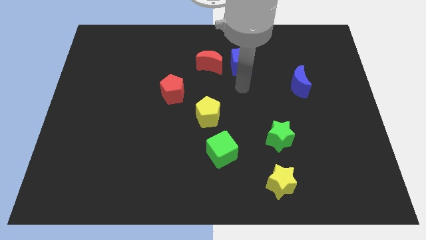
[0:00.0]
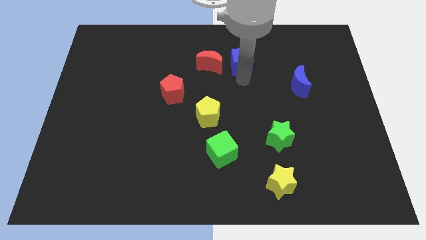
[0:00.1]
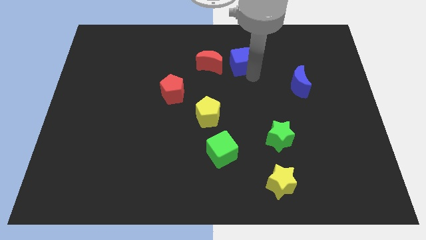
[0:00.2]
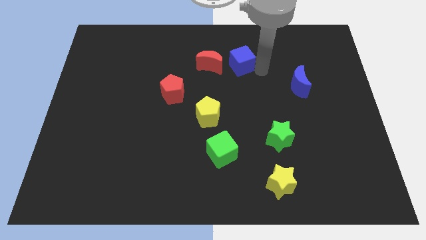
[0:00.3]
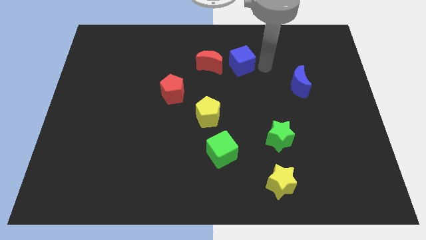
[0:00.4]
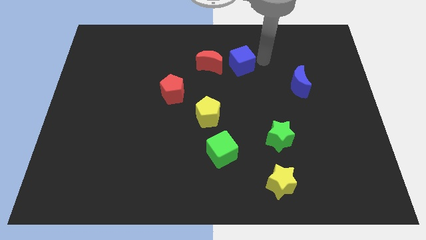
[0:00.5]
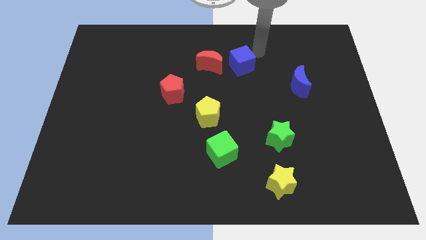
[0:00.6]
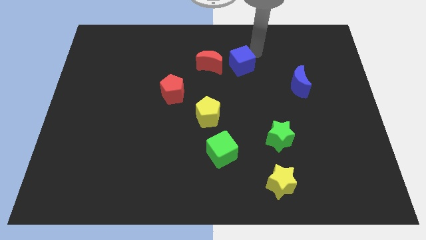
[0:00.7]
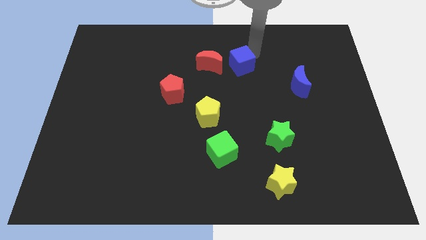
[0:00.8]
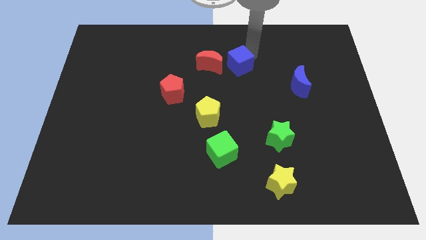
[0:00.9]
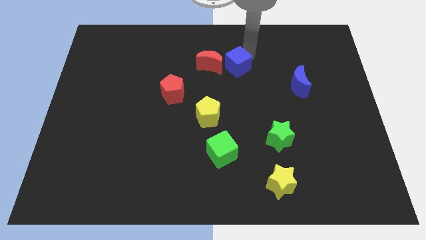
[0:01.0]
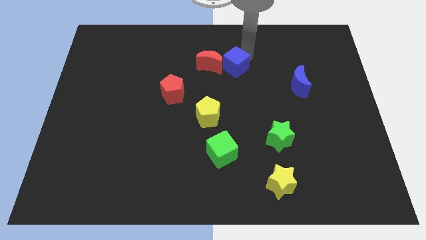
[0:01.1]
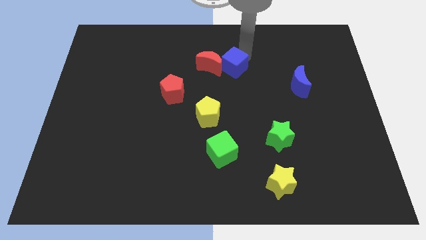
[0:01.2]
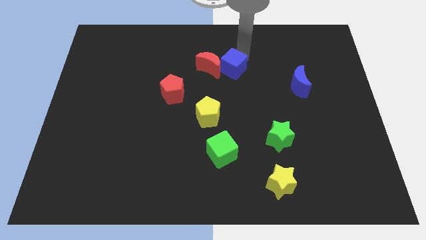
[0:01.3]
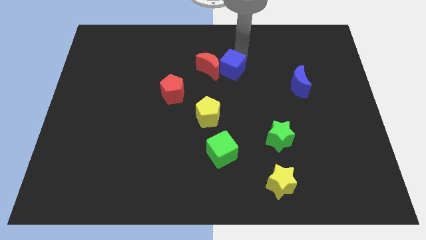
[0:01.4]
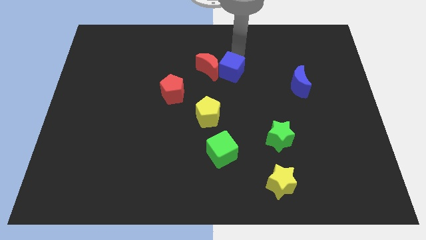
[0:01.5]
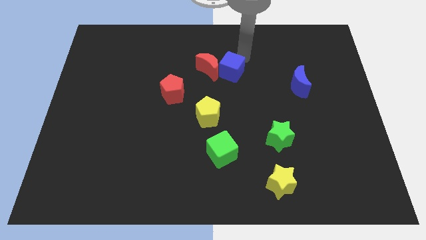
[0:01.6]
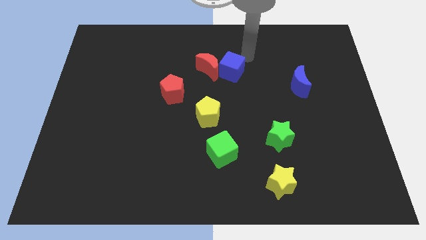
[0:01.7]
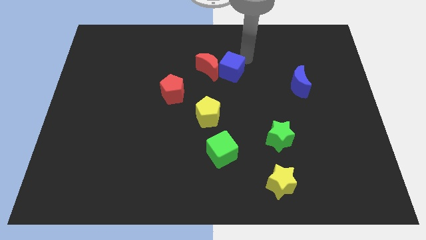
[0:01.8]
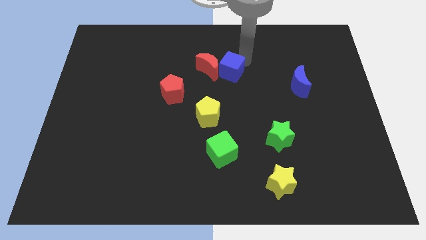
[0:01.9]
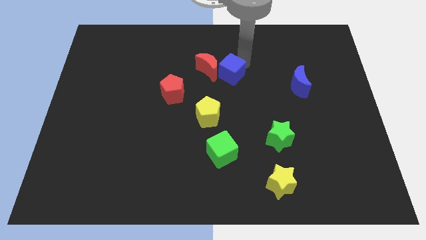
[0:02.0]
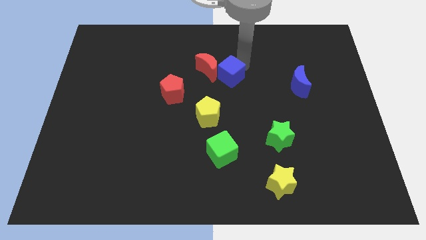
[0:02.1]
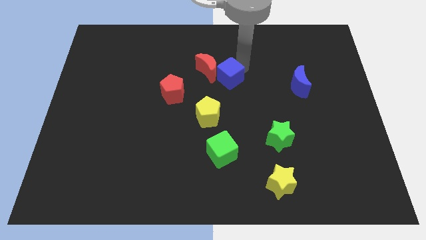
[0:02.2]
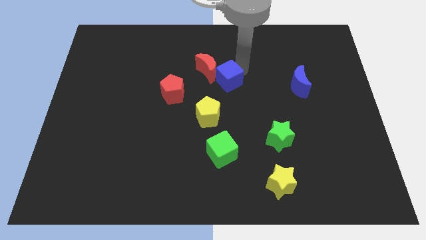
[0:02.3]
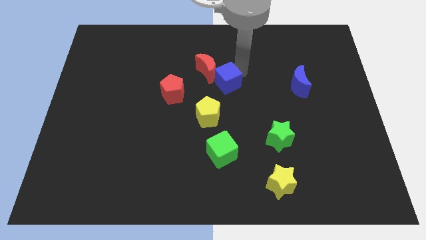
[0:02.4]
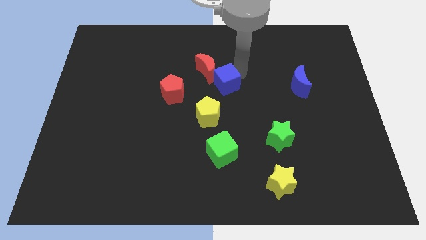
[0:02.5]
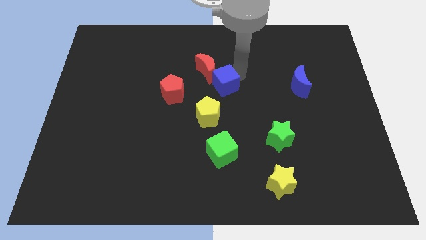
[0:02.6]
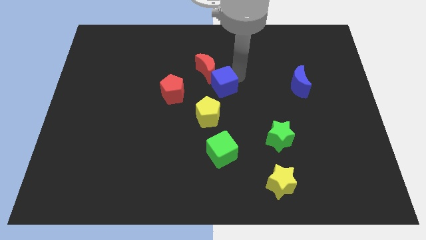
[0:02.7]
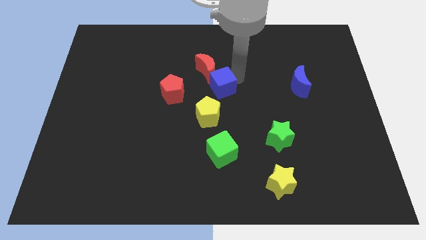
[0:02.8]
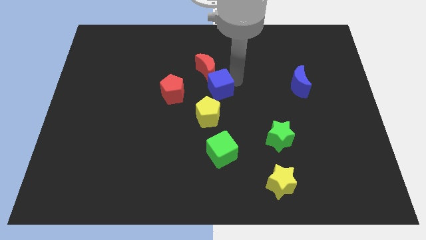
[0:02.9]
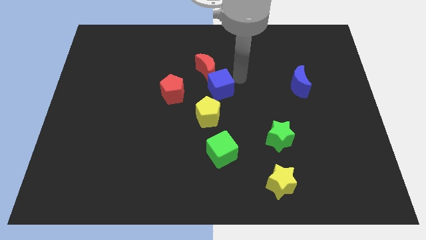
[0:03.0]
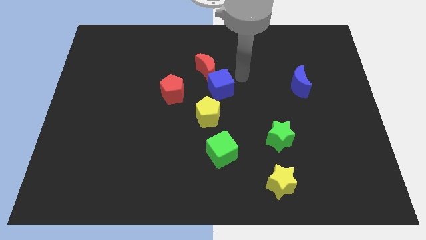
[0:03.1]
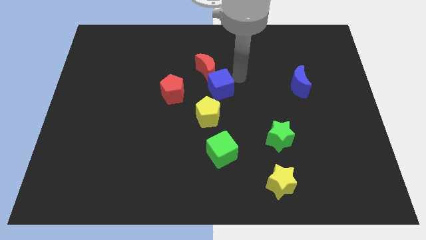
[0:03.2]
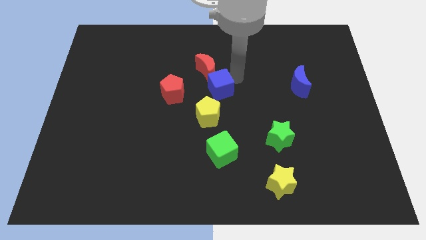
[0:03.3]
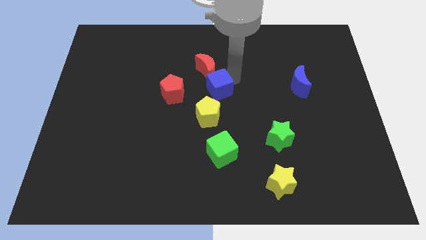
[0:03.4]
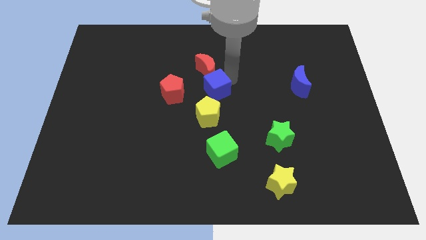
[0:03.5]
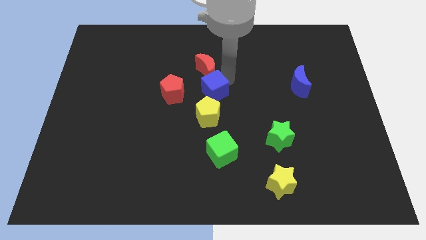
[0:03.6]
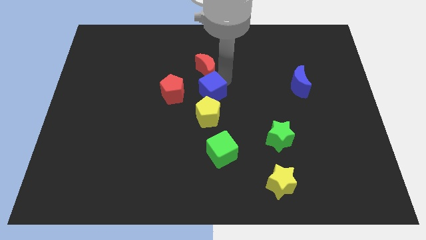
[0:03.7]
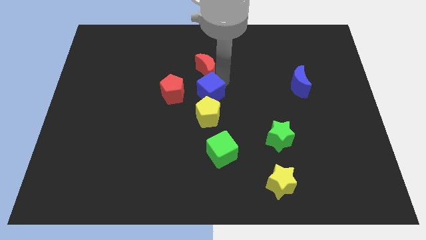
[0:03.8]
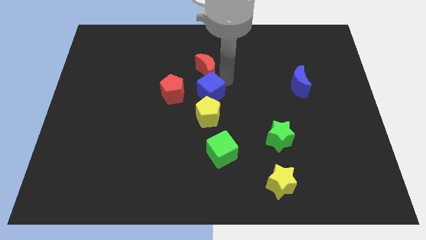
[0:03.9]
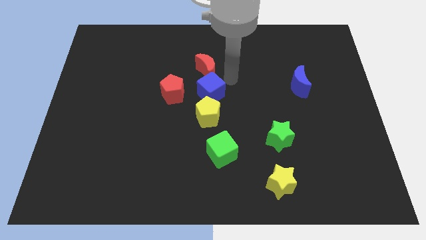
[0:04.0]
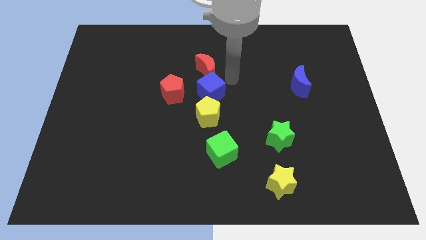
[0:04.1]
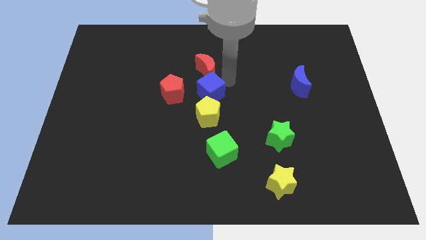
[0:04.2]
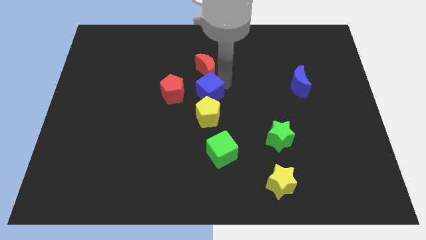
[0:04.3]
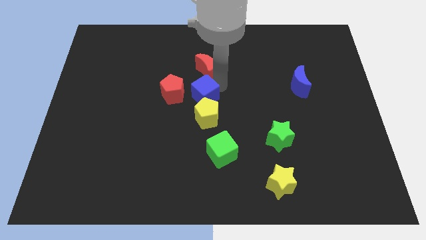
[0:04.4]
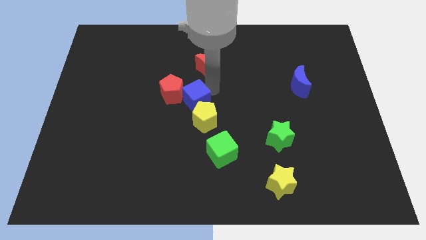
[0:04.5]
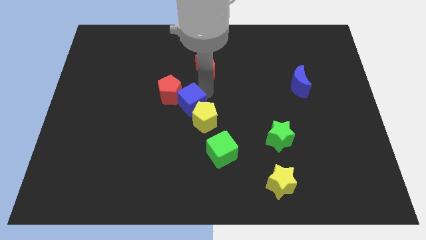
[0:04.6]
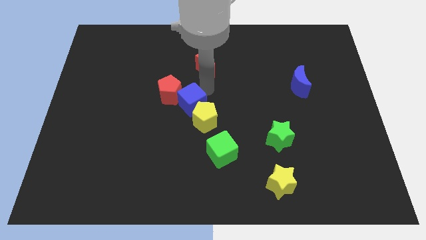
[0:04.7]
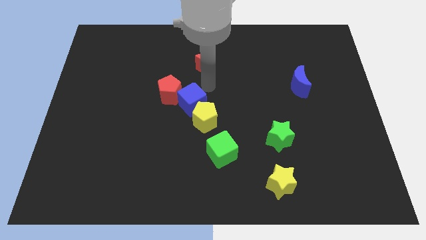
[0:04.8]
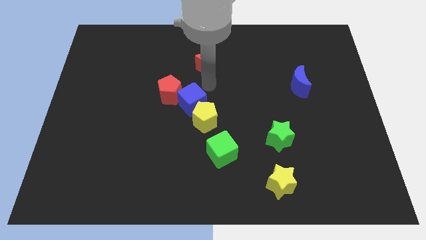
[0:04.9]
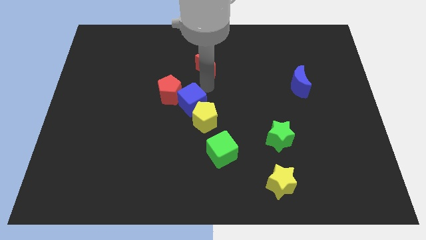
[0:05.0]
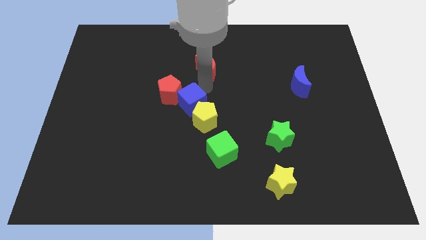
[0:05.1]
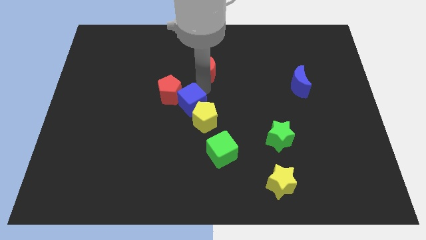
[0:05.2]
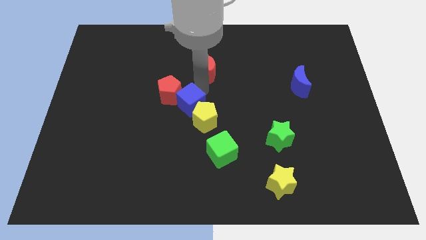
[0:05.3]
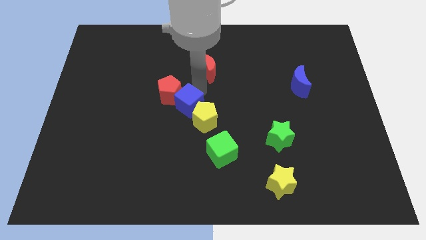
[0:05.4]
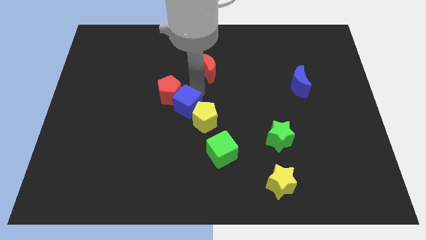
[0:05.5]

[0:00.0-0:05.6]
slide the blue cube to the bottom side of the red pentagon

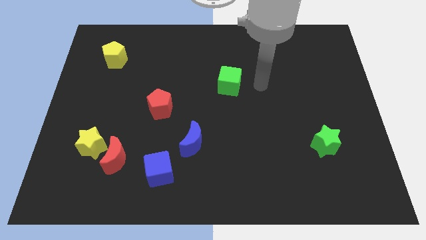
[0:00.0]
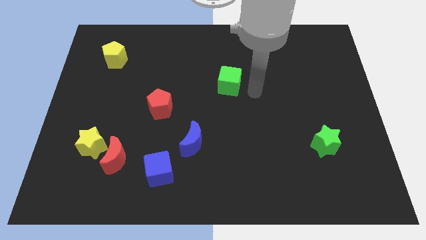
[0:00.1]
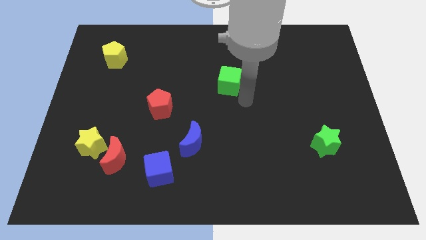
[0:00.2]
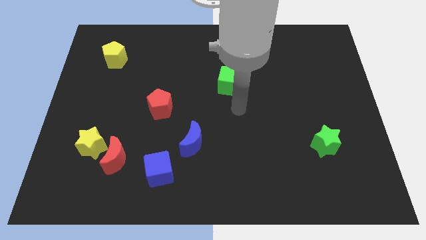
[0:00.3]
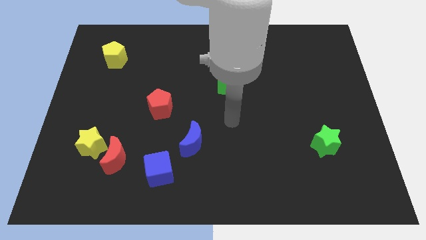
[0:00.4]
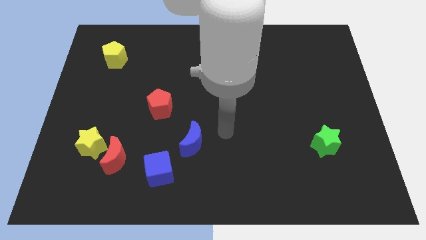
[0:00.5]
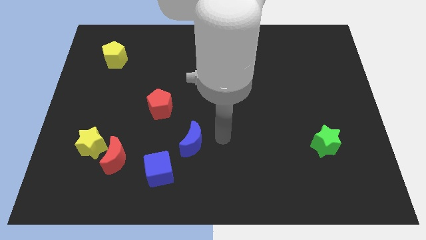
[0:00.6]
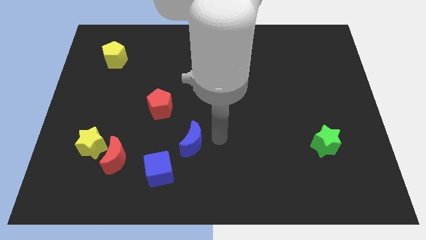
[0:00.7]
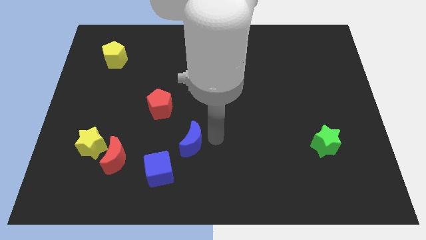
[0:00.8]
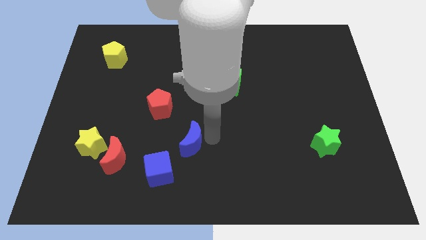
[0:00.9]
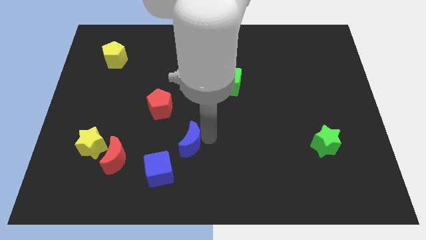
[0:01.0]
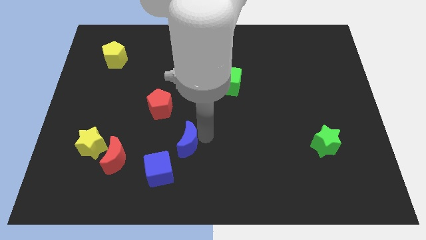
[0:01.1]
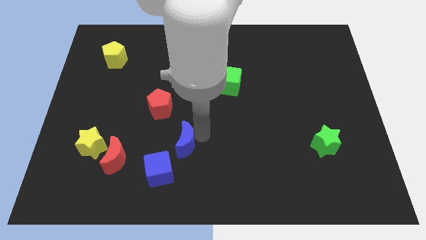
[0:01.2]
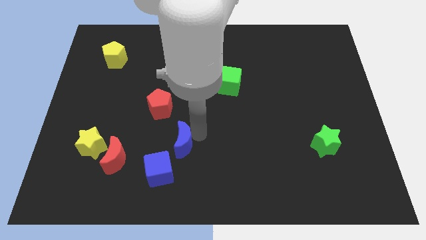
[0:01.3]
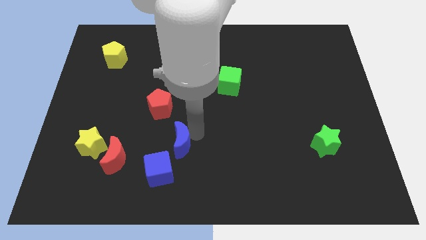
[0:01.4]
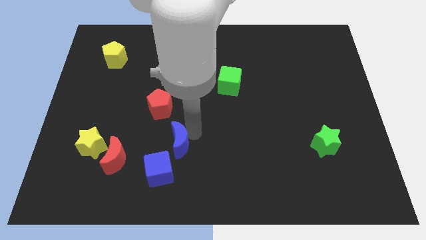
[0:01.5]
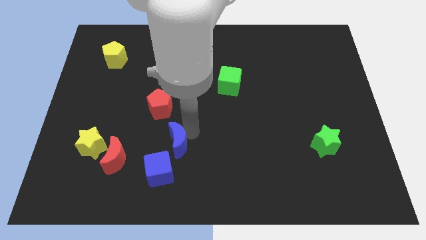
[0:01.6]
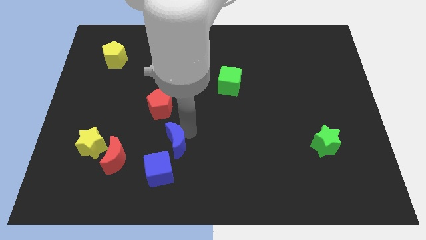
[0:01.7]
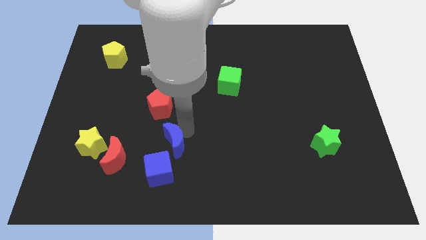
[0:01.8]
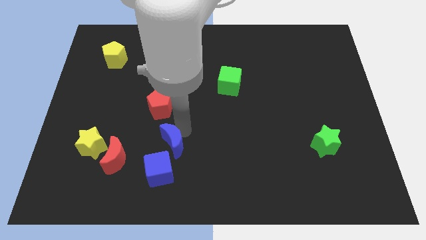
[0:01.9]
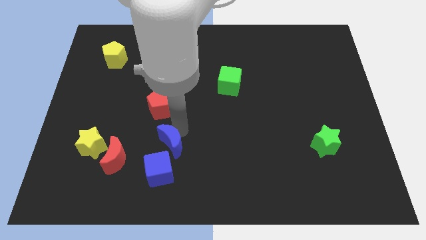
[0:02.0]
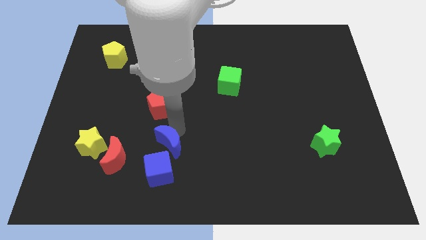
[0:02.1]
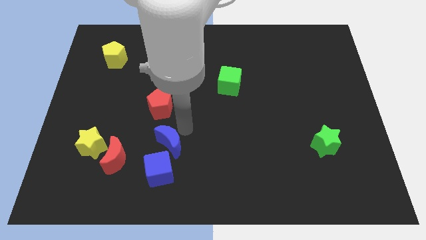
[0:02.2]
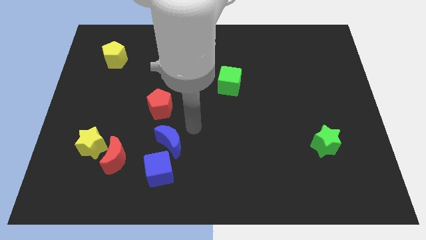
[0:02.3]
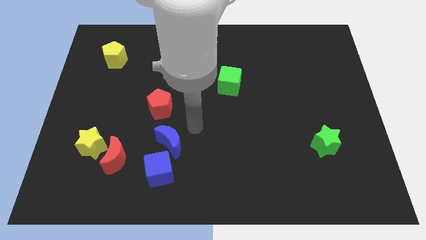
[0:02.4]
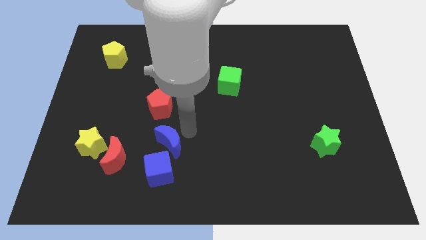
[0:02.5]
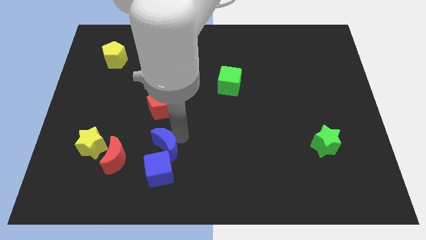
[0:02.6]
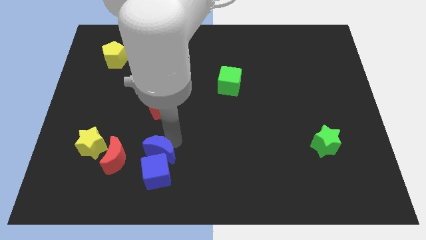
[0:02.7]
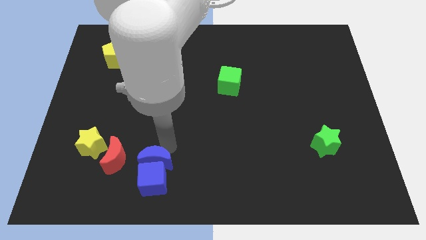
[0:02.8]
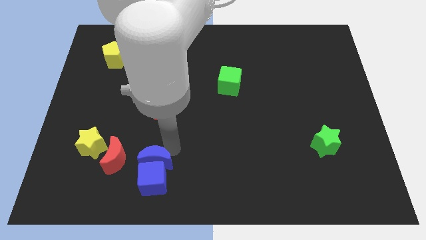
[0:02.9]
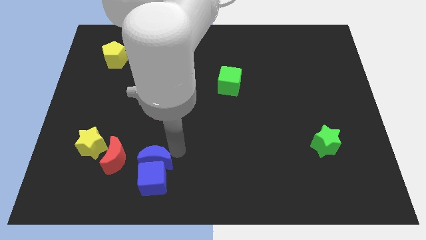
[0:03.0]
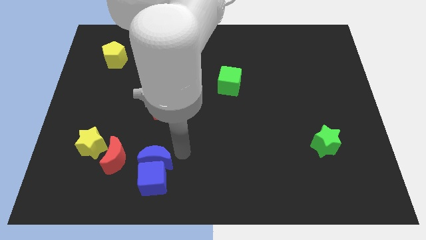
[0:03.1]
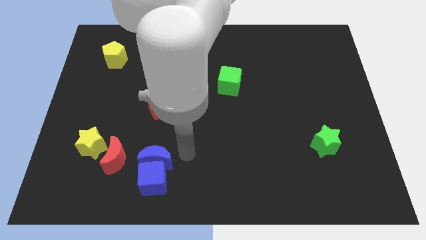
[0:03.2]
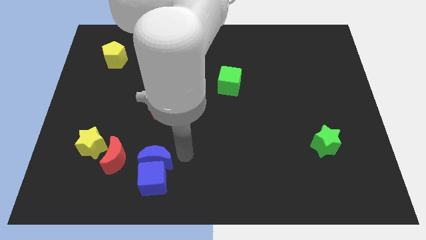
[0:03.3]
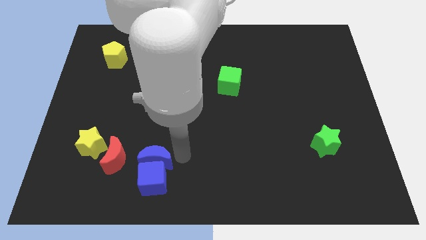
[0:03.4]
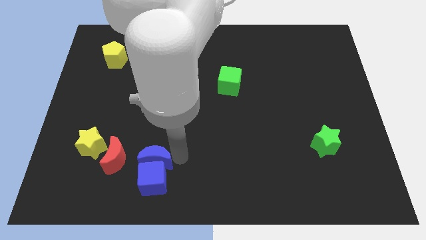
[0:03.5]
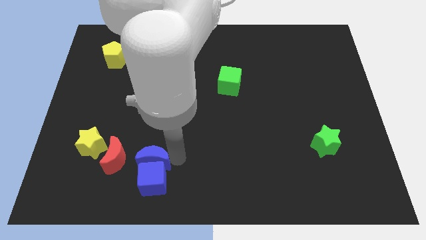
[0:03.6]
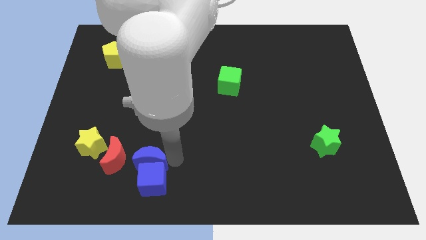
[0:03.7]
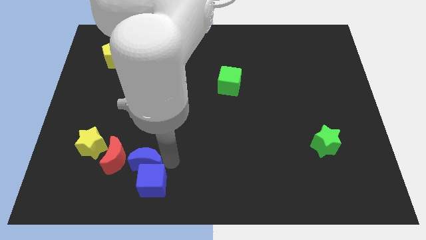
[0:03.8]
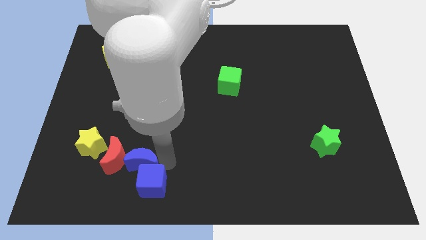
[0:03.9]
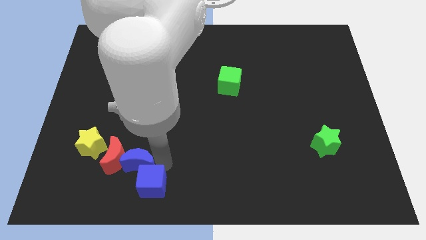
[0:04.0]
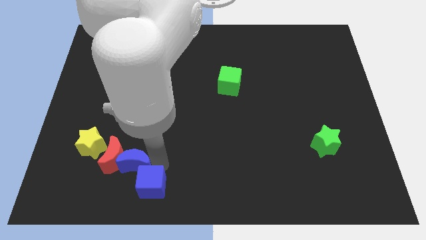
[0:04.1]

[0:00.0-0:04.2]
push the blue moon diagonally down and to the right of the yellow star
